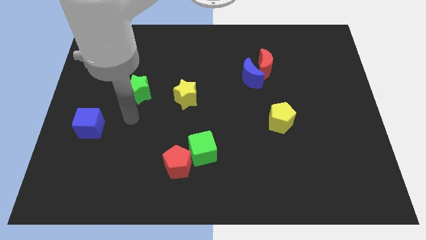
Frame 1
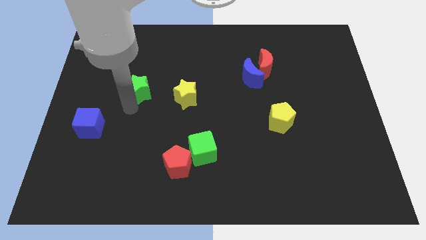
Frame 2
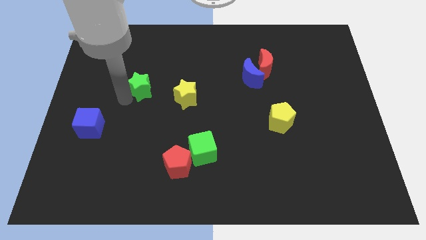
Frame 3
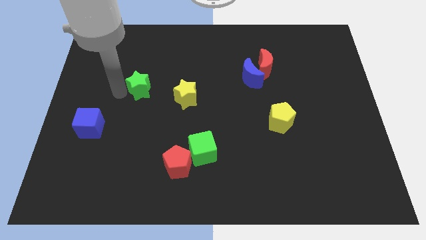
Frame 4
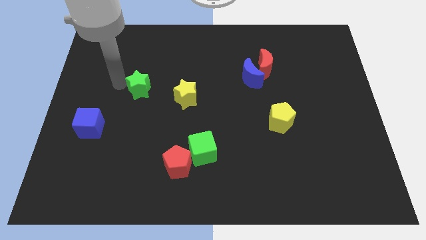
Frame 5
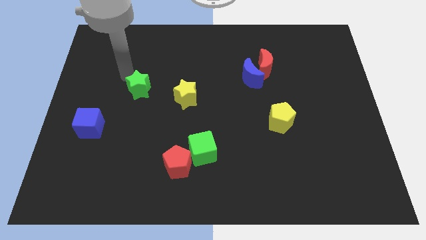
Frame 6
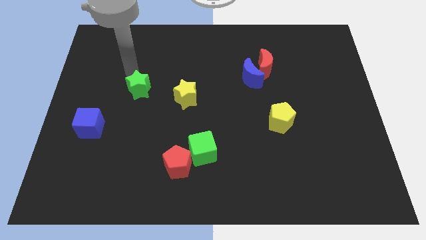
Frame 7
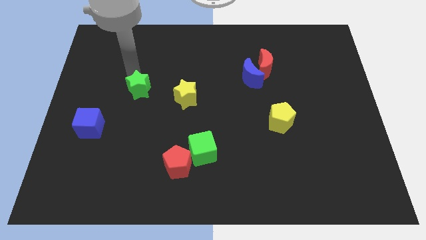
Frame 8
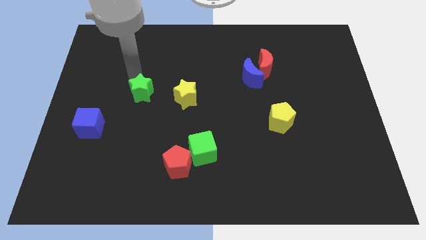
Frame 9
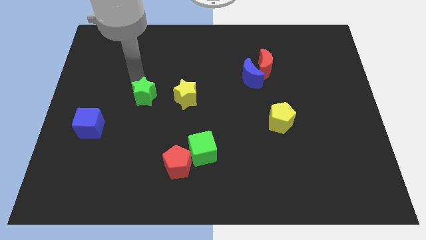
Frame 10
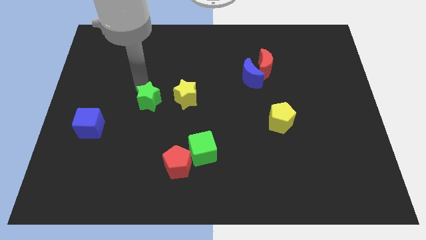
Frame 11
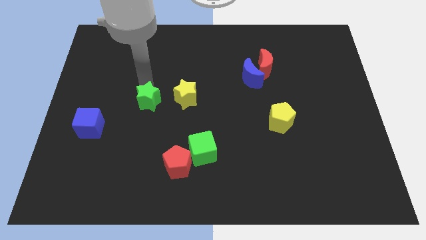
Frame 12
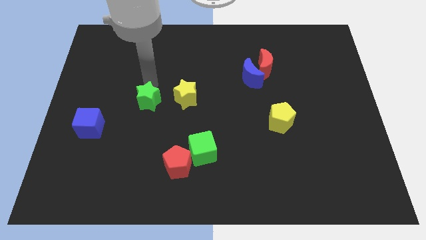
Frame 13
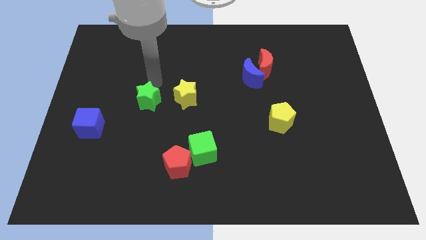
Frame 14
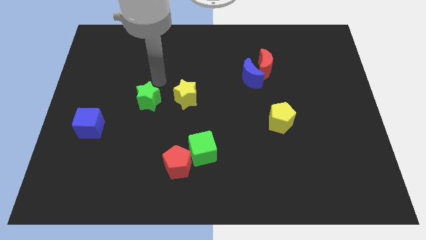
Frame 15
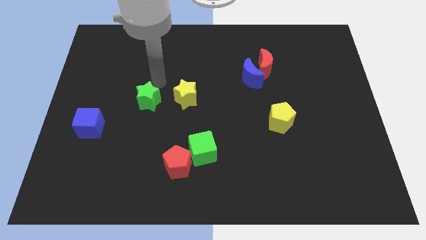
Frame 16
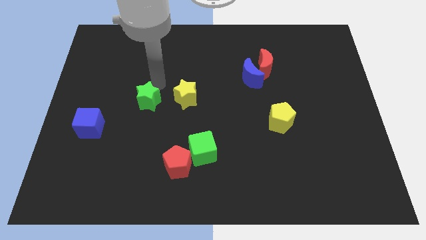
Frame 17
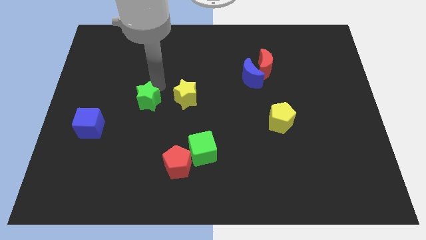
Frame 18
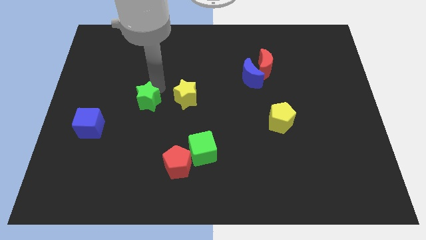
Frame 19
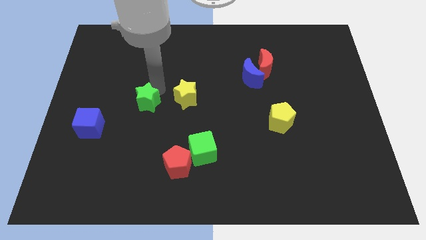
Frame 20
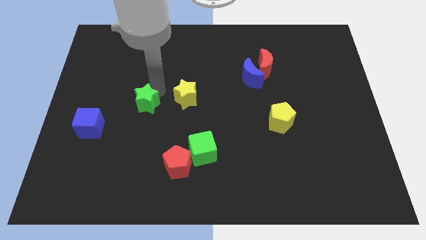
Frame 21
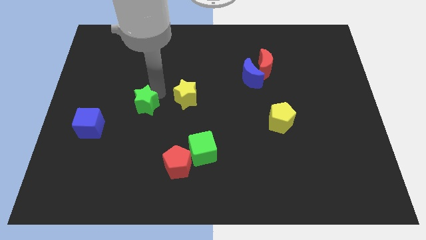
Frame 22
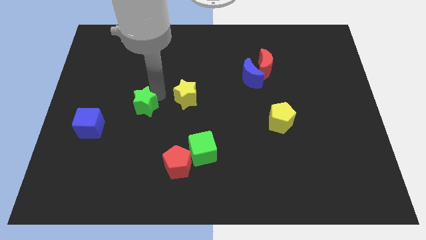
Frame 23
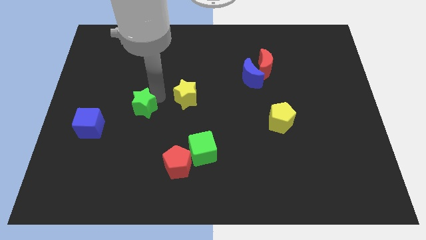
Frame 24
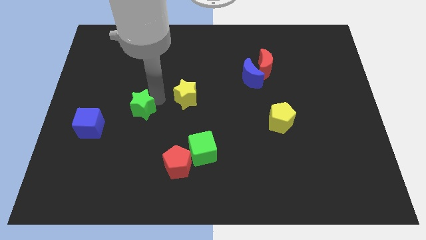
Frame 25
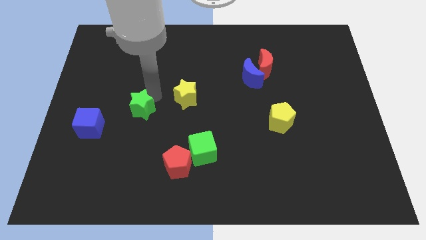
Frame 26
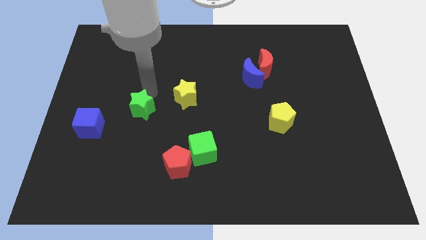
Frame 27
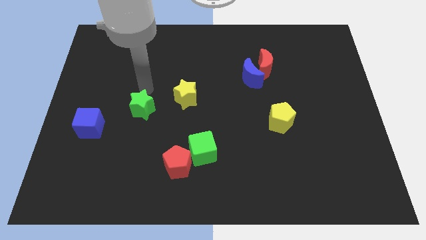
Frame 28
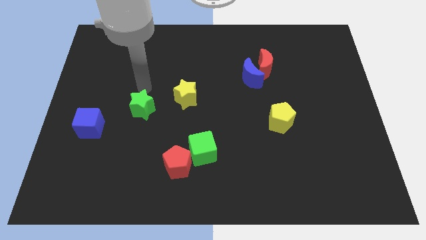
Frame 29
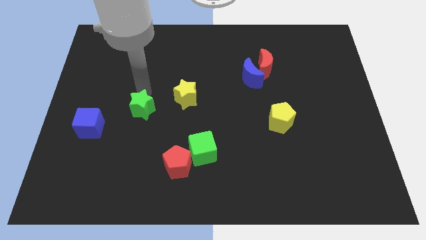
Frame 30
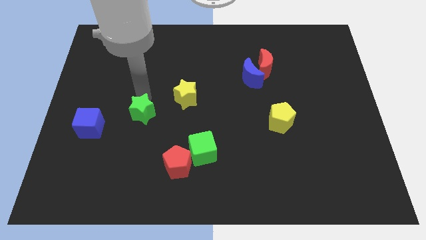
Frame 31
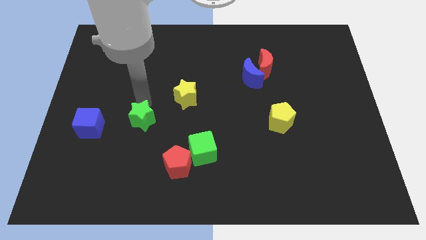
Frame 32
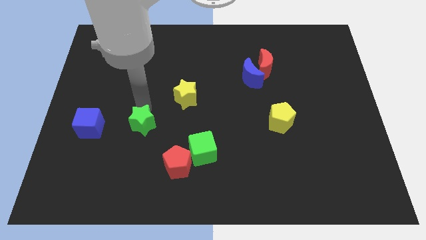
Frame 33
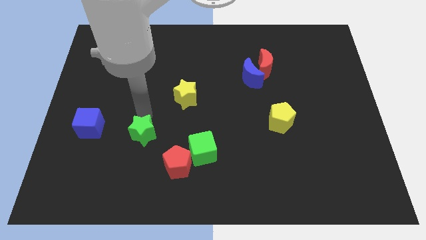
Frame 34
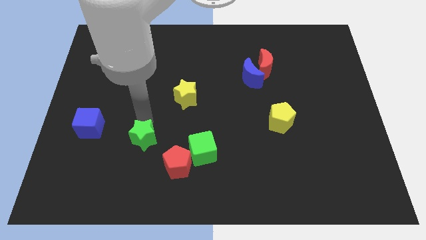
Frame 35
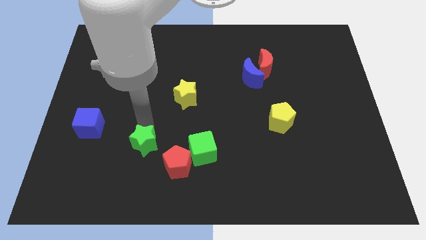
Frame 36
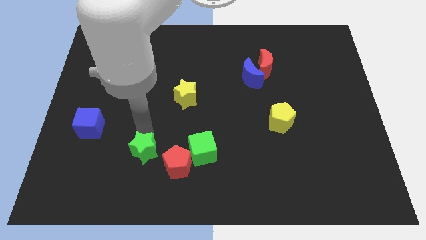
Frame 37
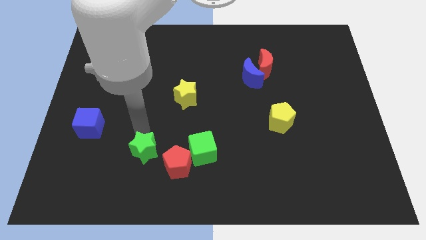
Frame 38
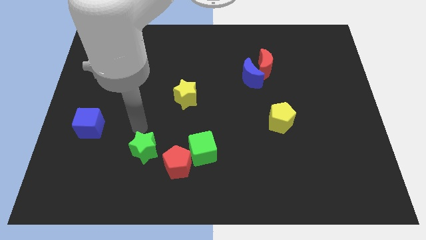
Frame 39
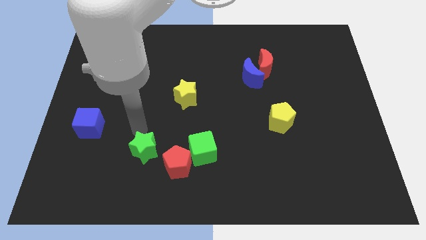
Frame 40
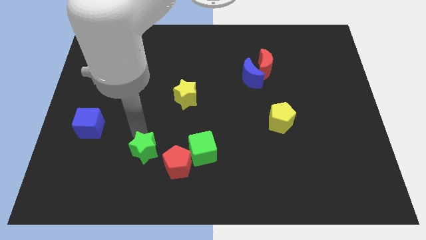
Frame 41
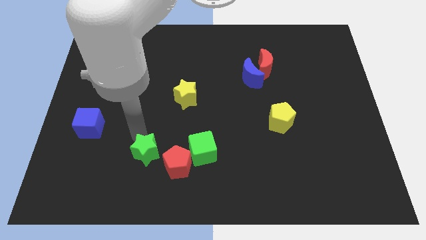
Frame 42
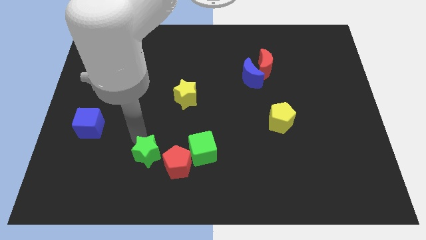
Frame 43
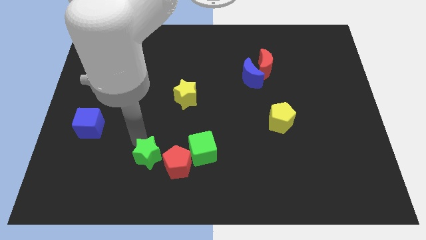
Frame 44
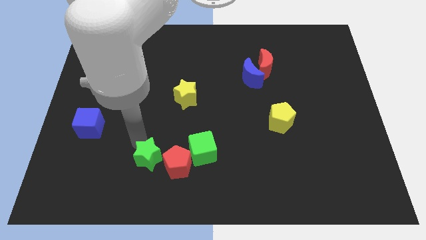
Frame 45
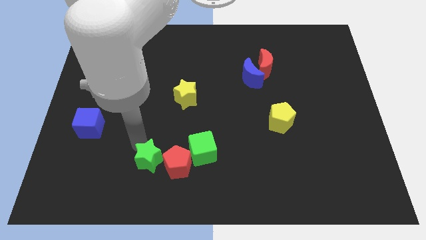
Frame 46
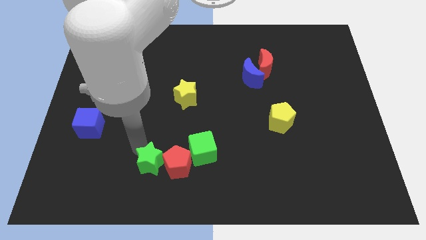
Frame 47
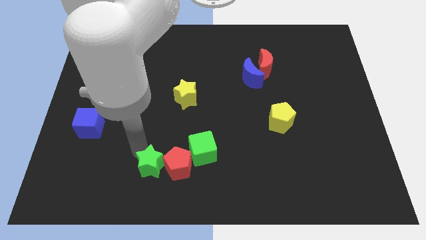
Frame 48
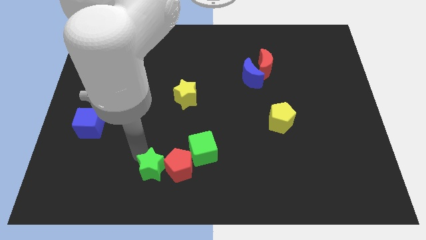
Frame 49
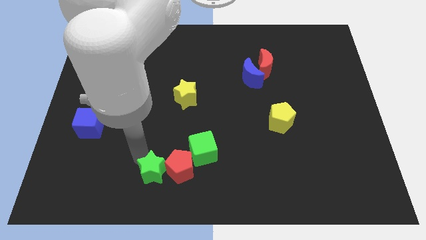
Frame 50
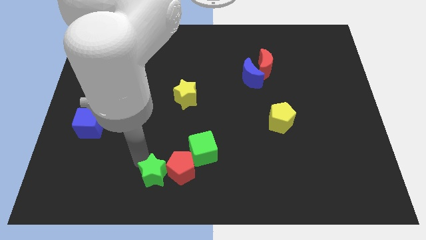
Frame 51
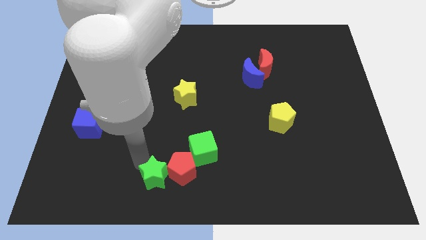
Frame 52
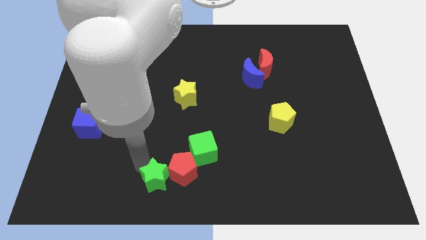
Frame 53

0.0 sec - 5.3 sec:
slide the green star to the bottom side

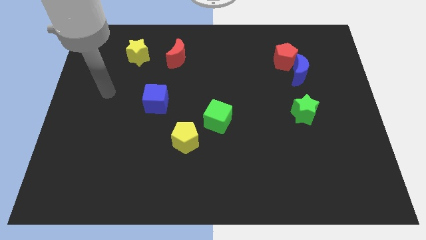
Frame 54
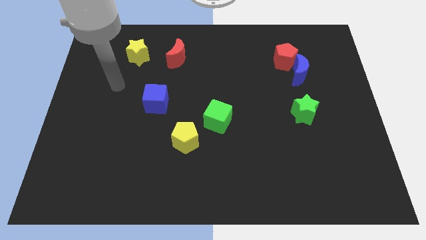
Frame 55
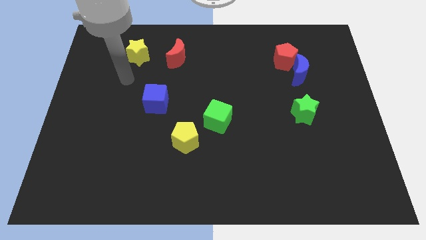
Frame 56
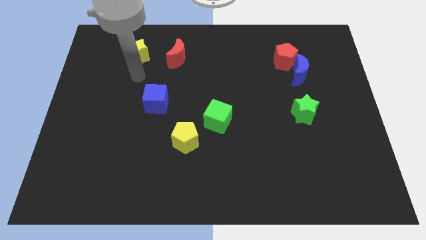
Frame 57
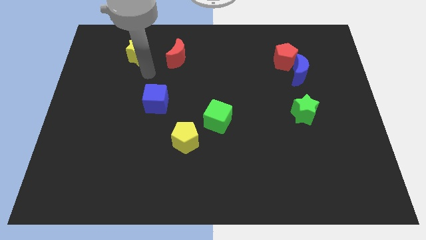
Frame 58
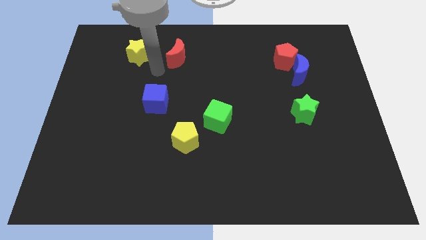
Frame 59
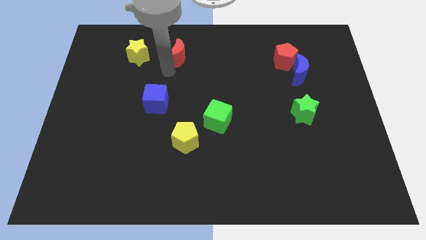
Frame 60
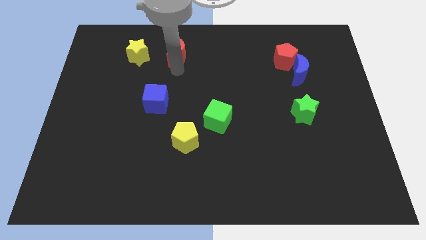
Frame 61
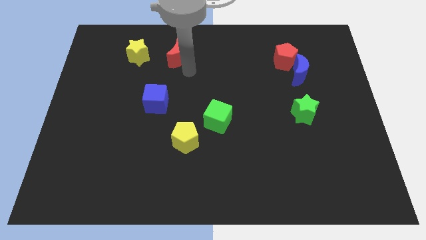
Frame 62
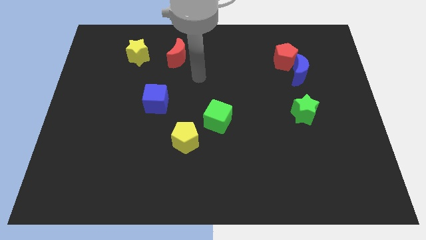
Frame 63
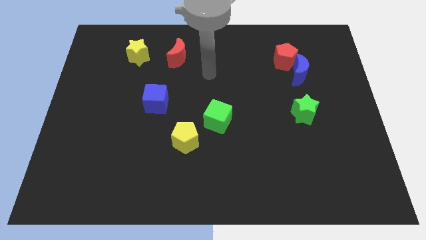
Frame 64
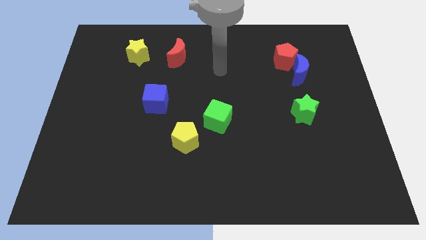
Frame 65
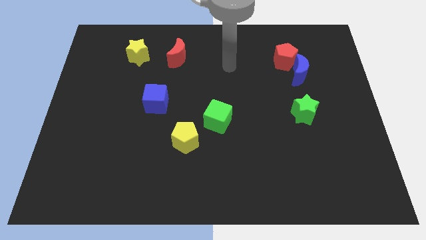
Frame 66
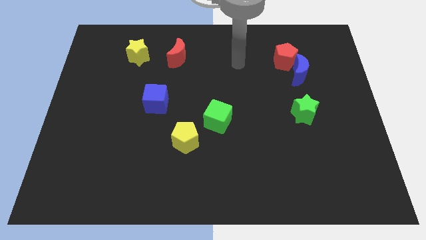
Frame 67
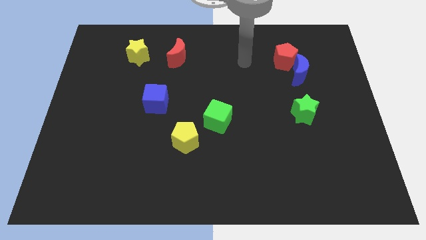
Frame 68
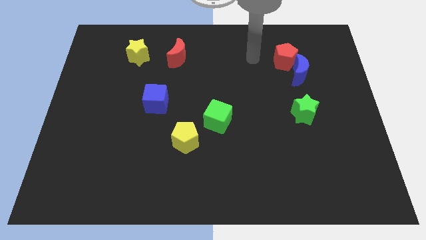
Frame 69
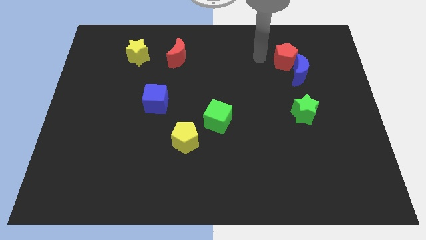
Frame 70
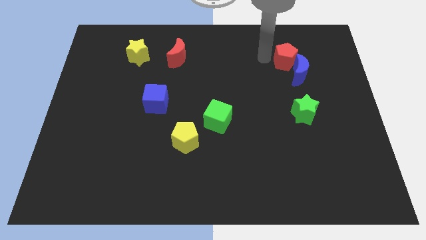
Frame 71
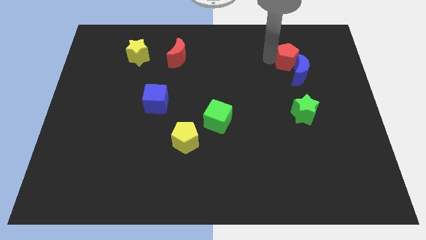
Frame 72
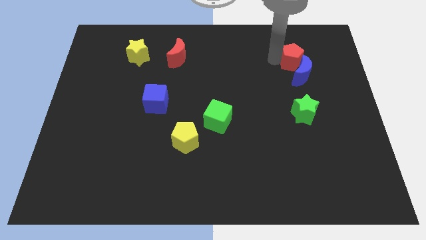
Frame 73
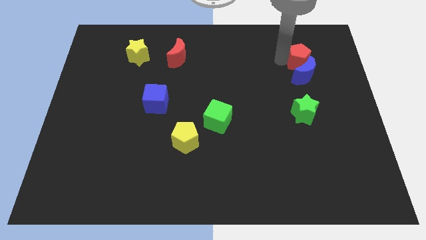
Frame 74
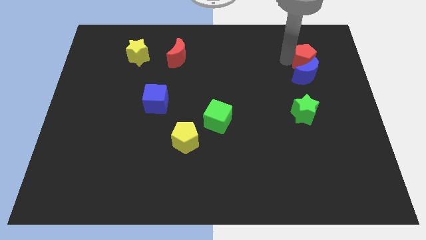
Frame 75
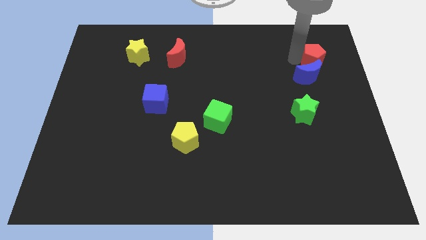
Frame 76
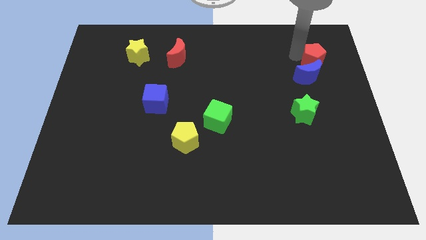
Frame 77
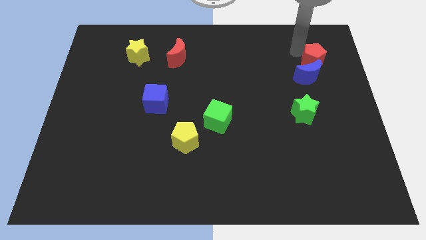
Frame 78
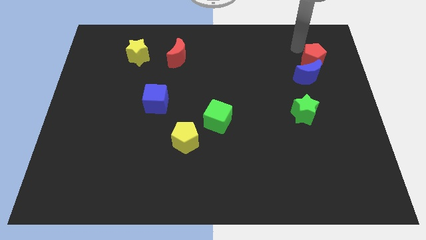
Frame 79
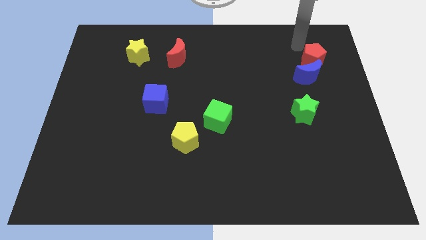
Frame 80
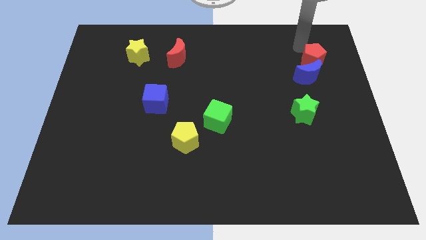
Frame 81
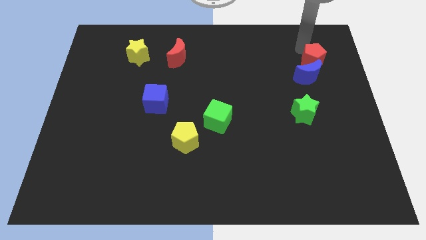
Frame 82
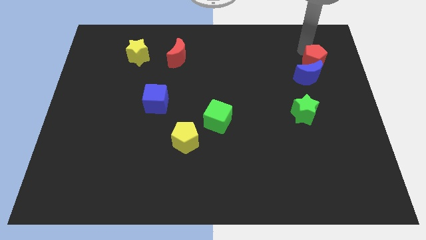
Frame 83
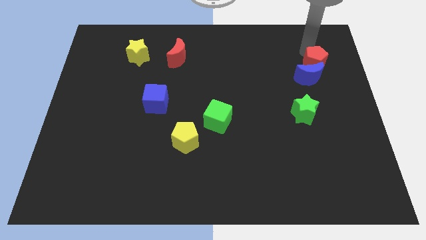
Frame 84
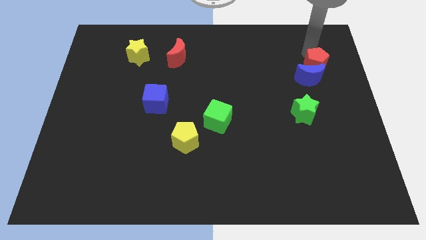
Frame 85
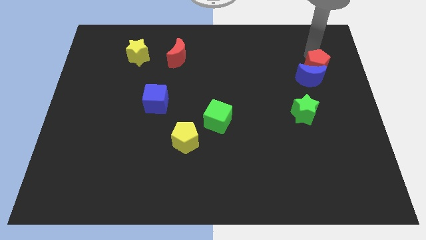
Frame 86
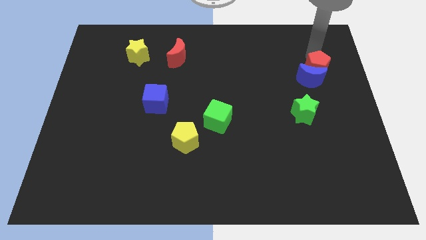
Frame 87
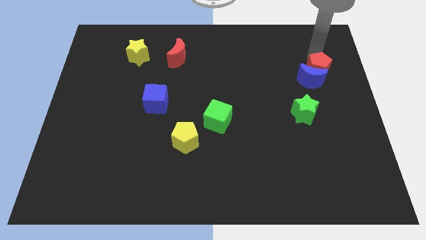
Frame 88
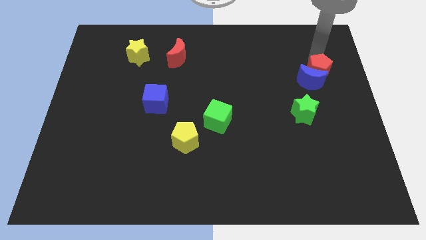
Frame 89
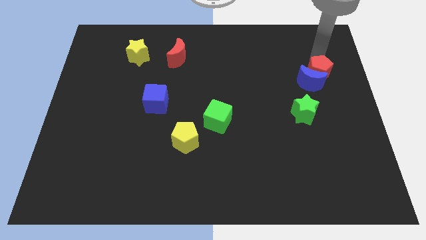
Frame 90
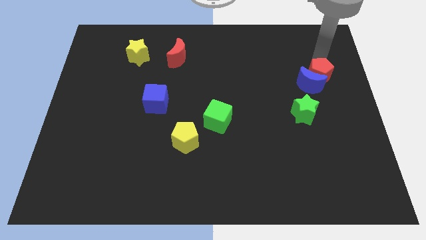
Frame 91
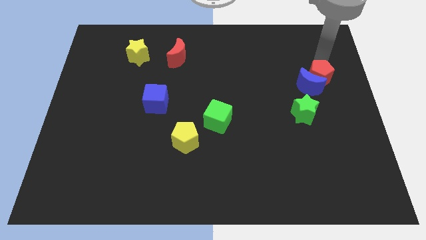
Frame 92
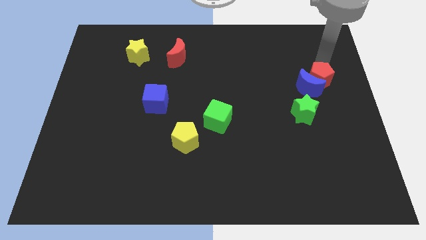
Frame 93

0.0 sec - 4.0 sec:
slide the red pentagon to the center right
